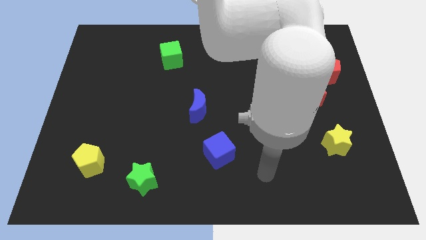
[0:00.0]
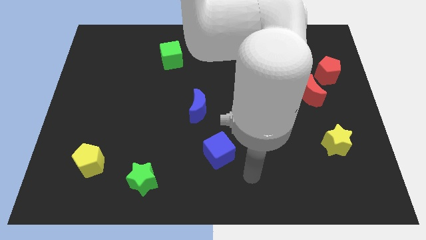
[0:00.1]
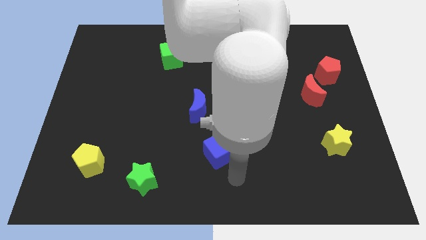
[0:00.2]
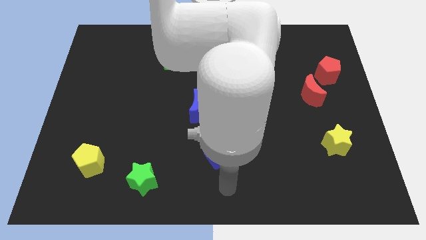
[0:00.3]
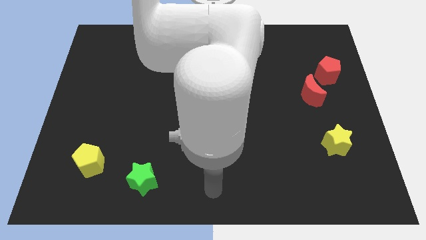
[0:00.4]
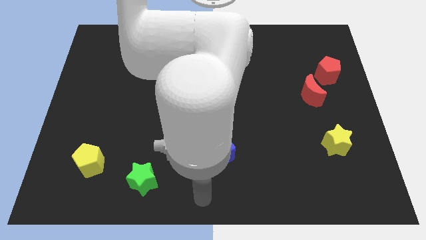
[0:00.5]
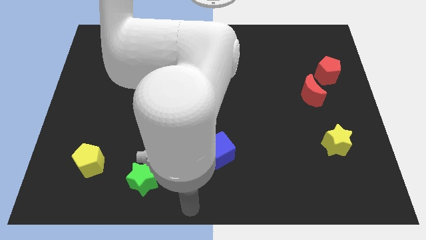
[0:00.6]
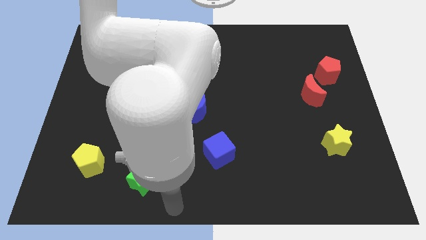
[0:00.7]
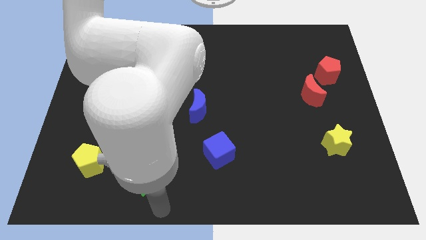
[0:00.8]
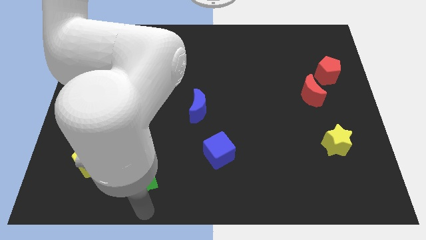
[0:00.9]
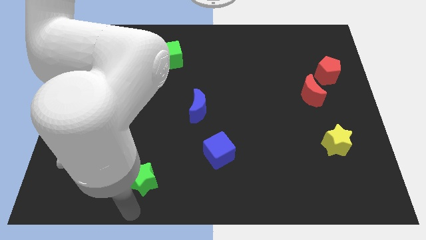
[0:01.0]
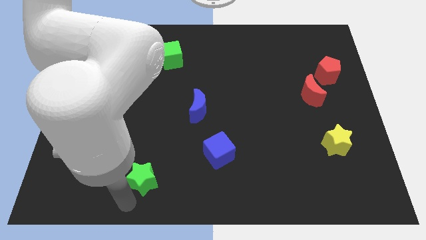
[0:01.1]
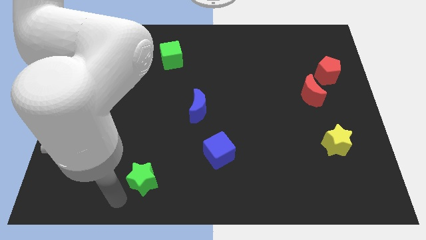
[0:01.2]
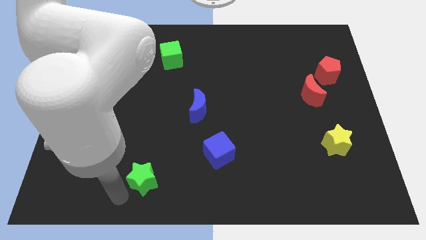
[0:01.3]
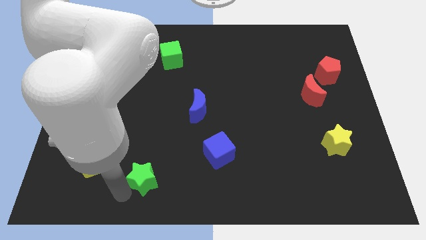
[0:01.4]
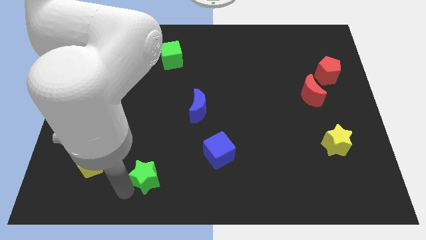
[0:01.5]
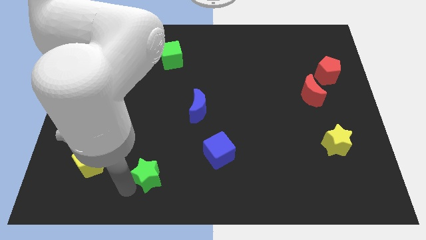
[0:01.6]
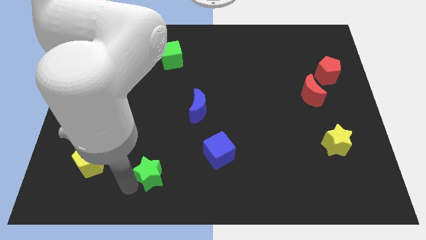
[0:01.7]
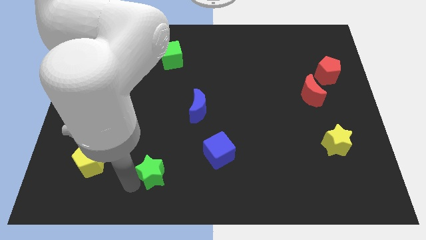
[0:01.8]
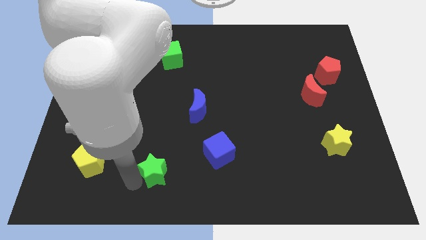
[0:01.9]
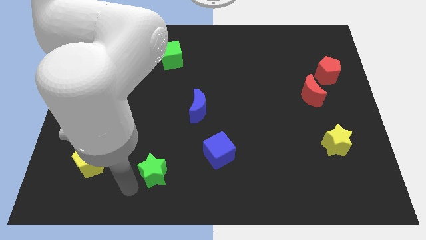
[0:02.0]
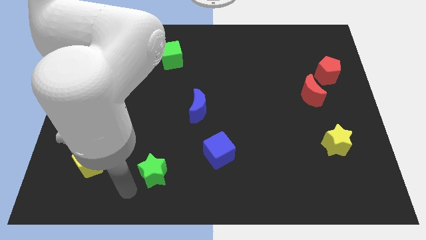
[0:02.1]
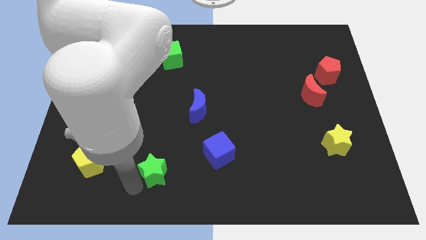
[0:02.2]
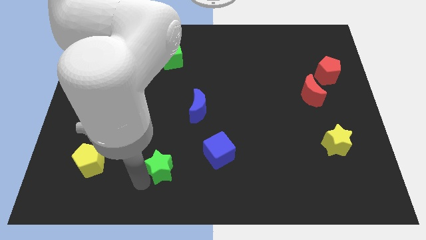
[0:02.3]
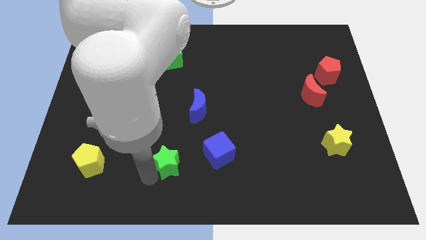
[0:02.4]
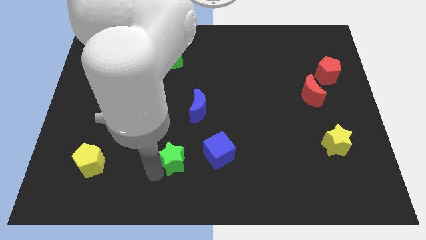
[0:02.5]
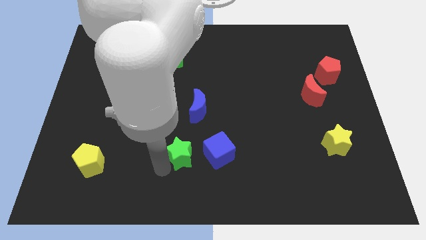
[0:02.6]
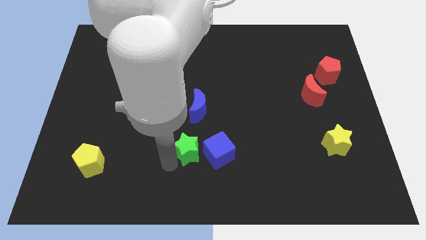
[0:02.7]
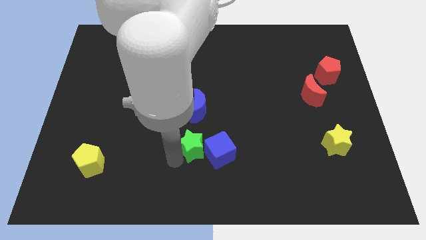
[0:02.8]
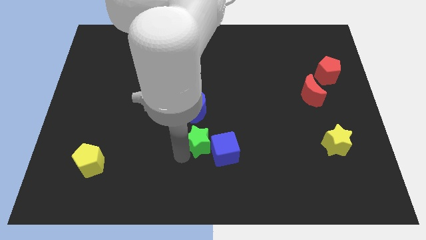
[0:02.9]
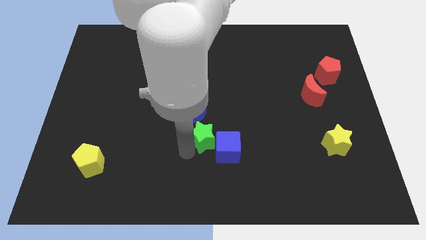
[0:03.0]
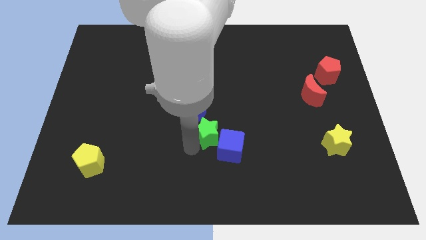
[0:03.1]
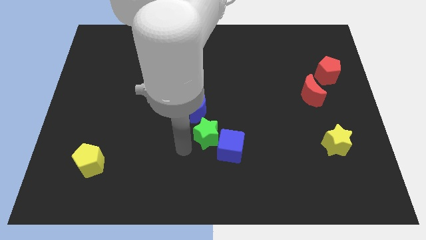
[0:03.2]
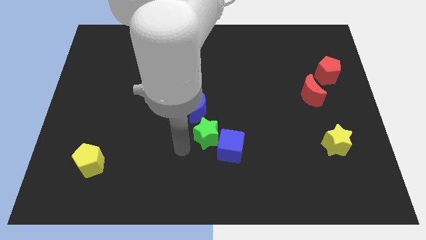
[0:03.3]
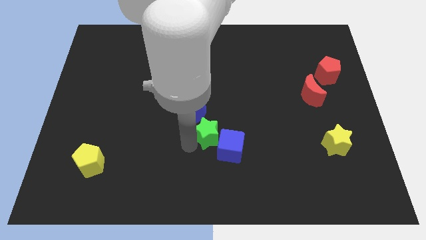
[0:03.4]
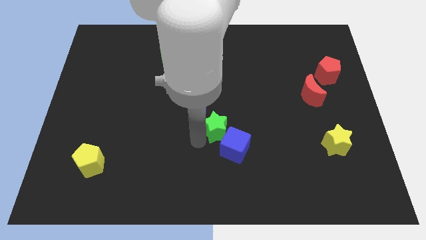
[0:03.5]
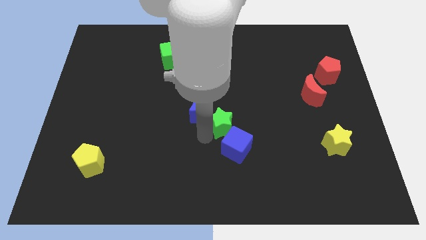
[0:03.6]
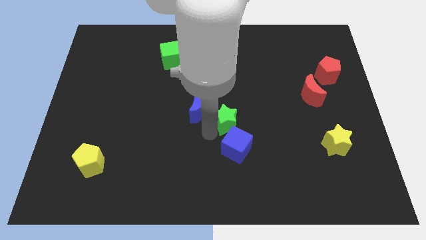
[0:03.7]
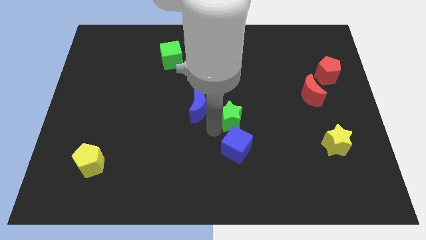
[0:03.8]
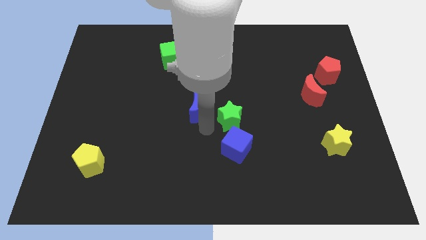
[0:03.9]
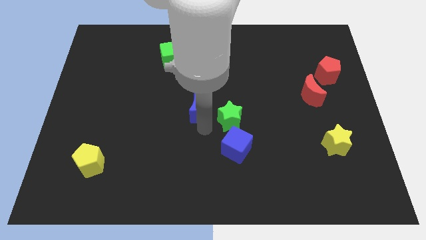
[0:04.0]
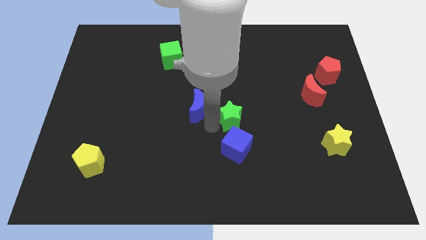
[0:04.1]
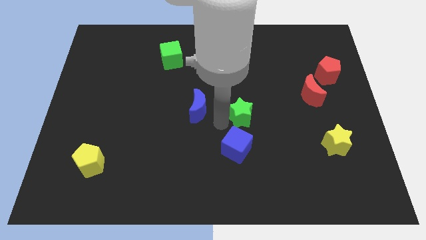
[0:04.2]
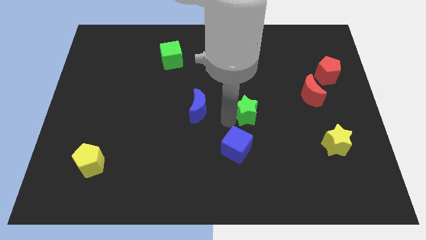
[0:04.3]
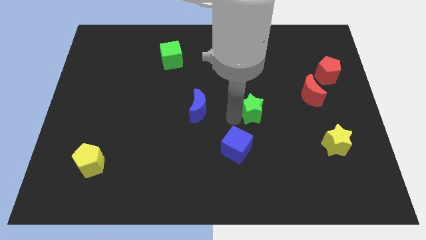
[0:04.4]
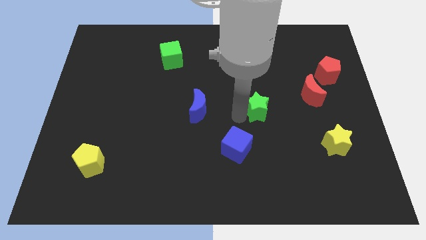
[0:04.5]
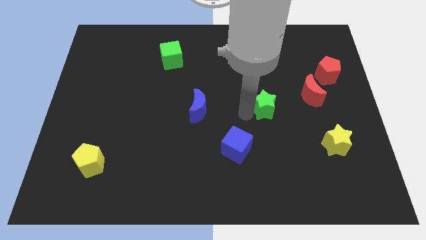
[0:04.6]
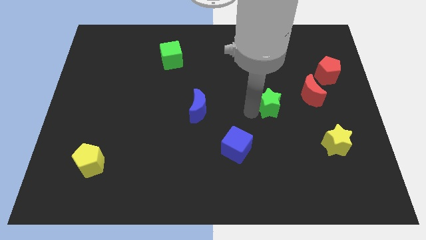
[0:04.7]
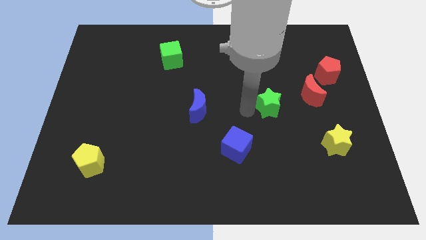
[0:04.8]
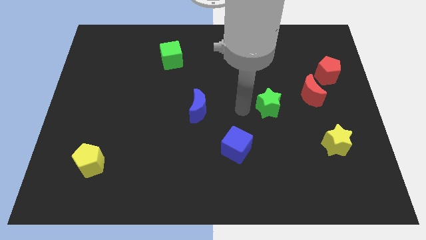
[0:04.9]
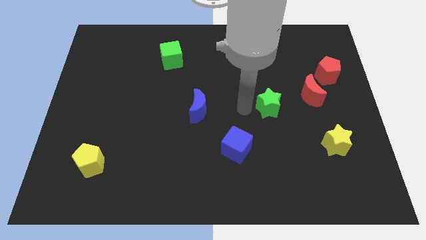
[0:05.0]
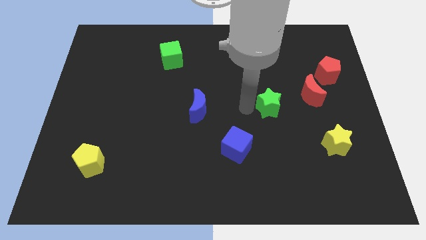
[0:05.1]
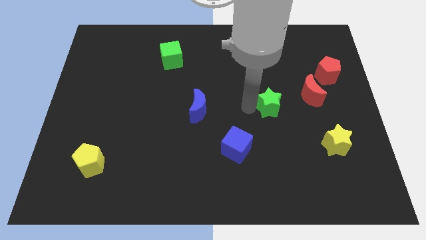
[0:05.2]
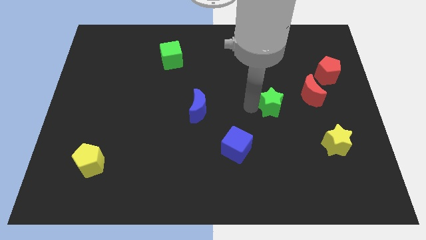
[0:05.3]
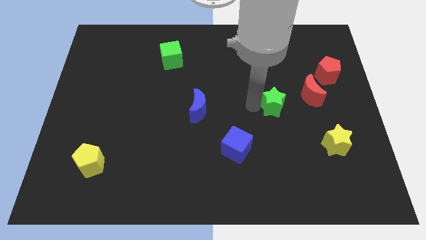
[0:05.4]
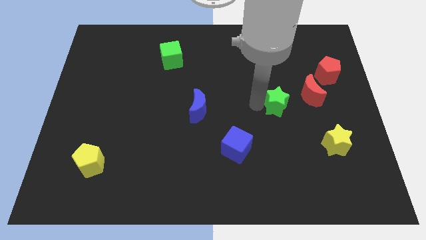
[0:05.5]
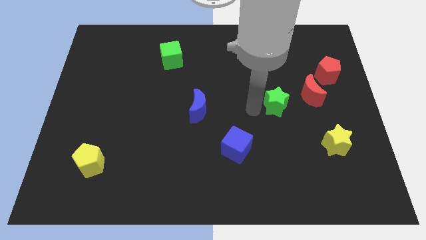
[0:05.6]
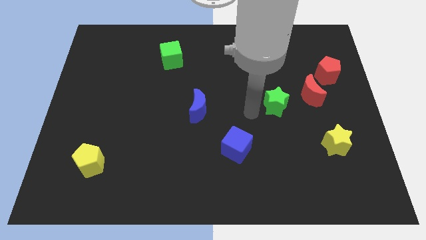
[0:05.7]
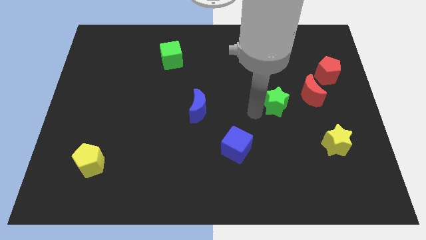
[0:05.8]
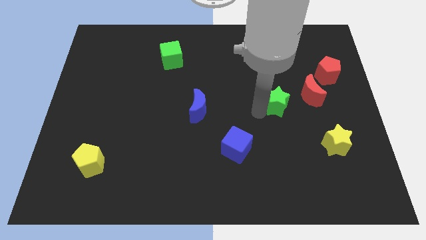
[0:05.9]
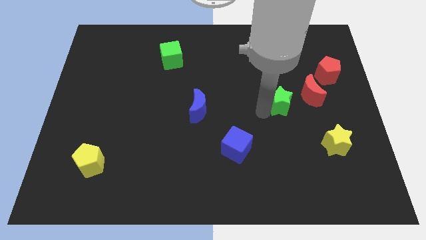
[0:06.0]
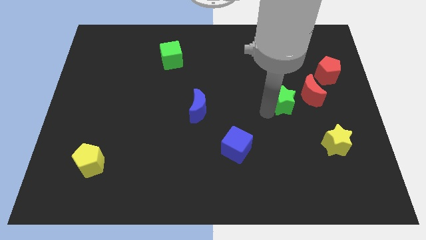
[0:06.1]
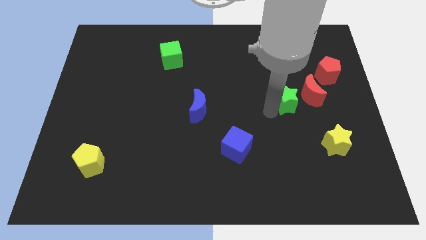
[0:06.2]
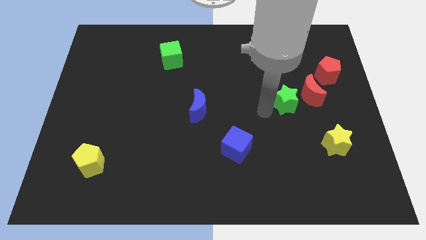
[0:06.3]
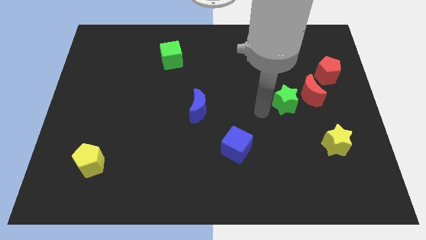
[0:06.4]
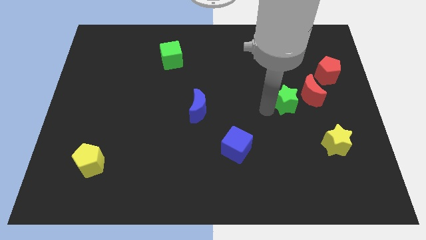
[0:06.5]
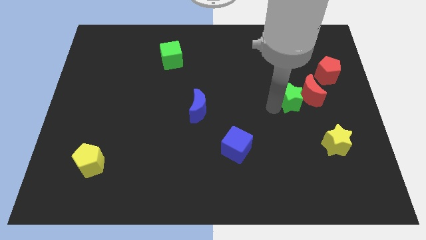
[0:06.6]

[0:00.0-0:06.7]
push the green star next to the red moon
